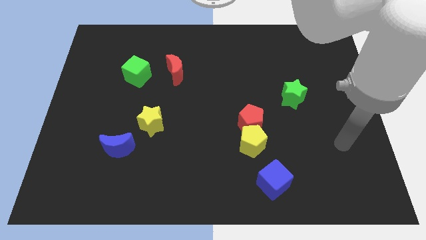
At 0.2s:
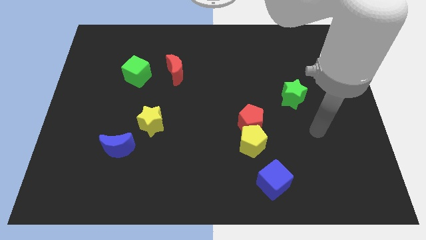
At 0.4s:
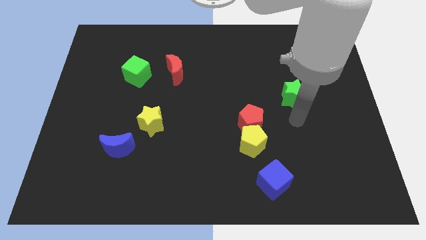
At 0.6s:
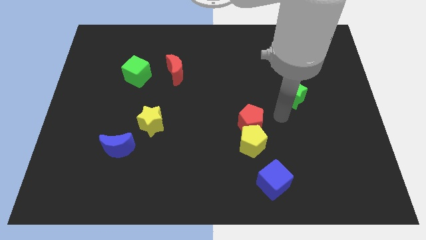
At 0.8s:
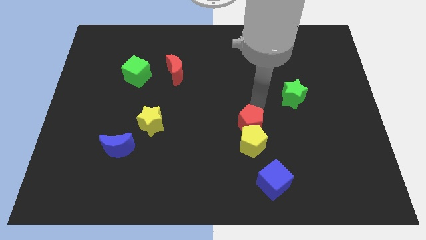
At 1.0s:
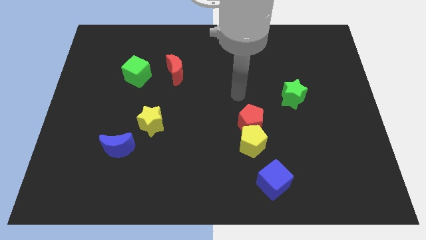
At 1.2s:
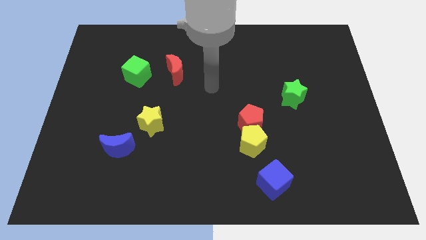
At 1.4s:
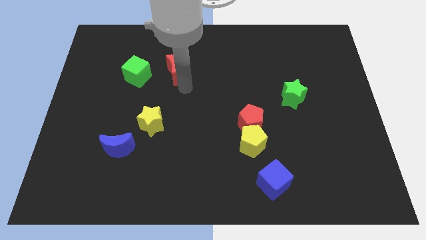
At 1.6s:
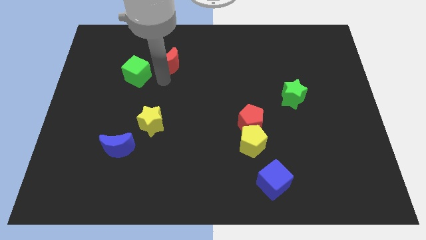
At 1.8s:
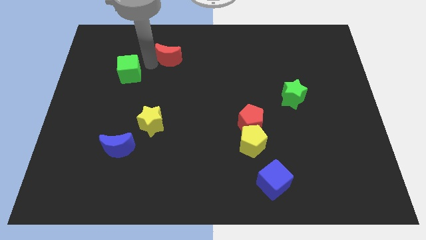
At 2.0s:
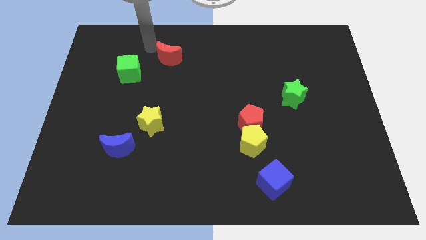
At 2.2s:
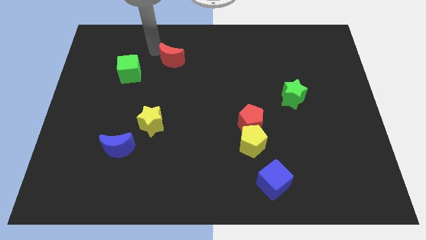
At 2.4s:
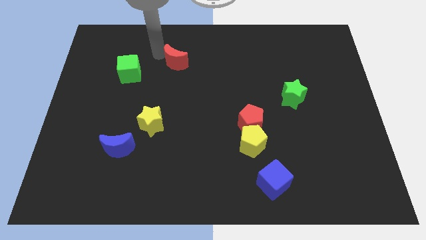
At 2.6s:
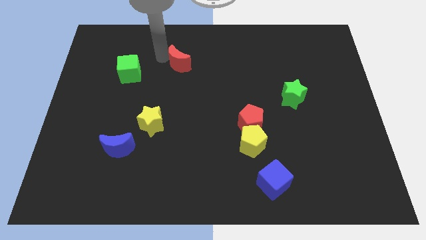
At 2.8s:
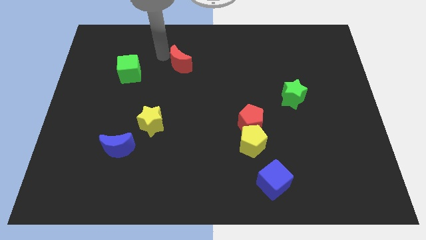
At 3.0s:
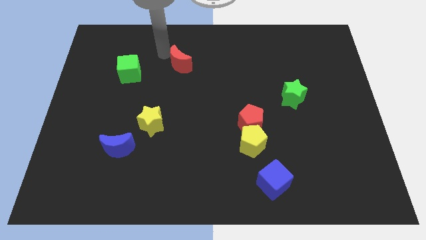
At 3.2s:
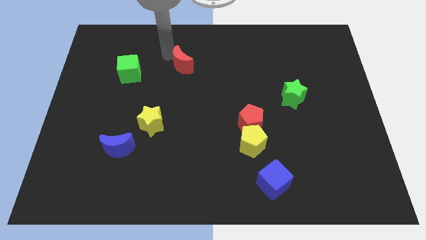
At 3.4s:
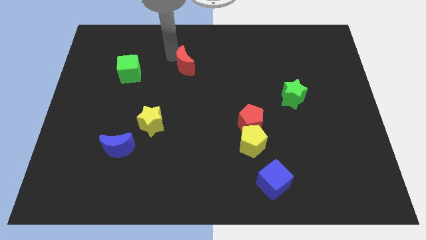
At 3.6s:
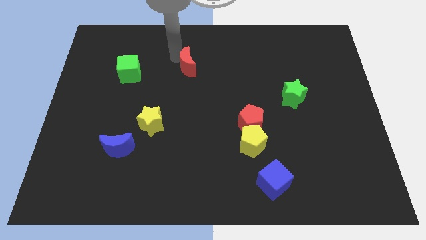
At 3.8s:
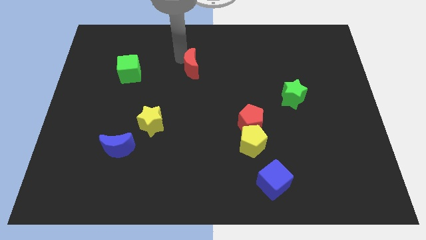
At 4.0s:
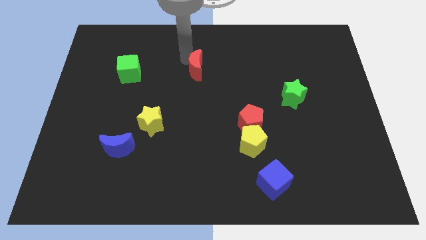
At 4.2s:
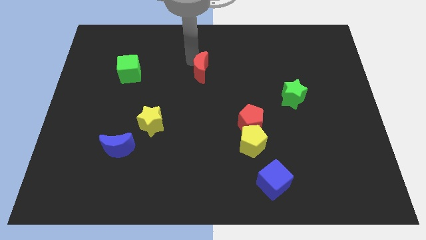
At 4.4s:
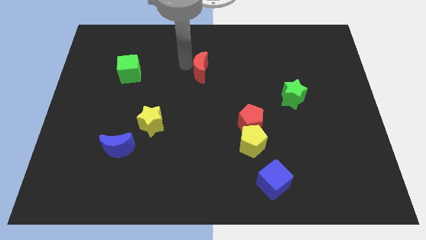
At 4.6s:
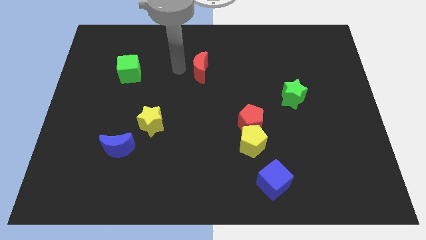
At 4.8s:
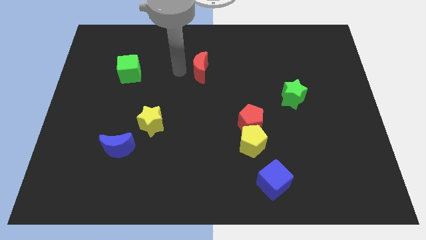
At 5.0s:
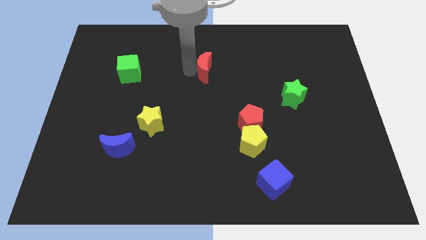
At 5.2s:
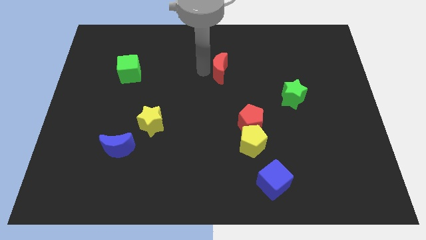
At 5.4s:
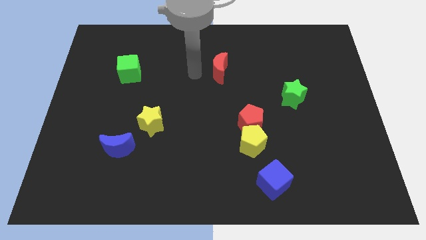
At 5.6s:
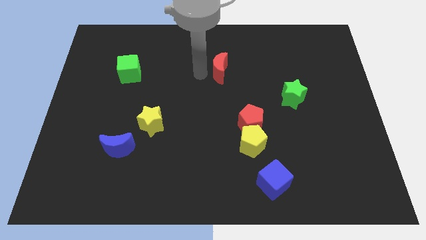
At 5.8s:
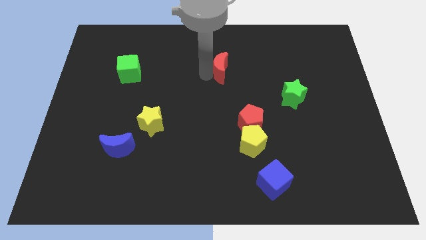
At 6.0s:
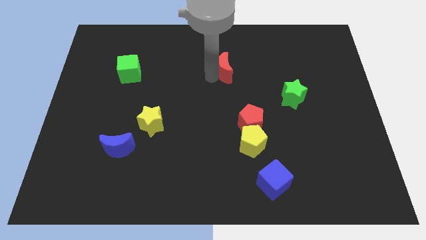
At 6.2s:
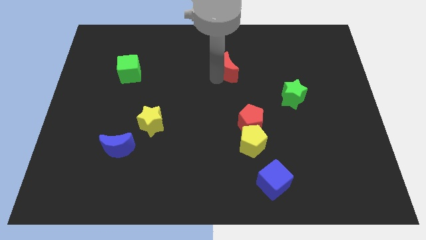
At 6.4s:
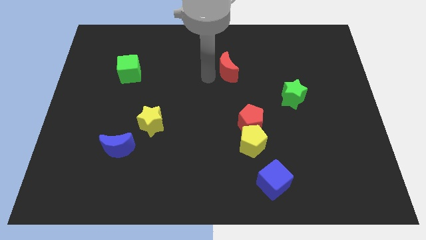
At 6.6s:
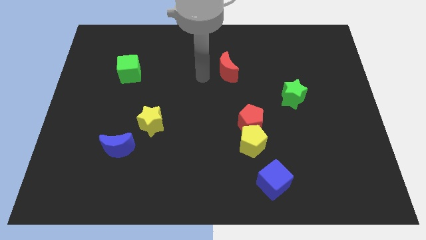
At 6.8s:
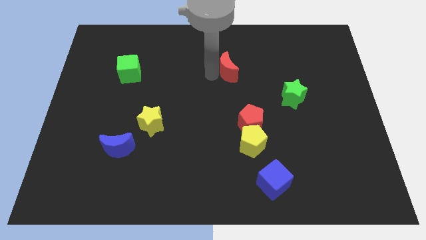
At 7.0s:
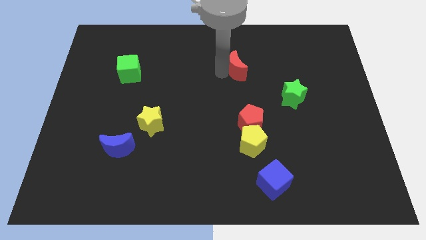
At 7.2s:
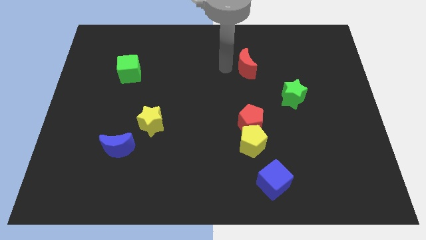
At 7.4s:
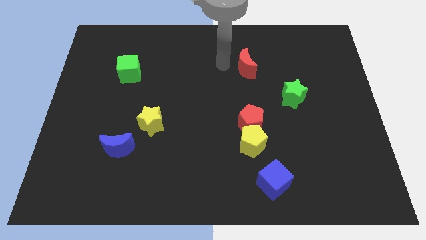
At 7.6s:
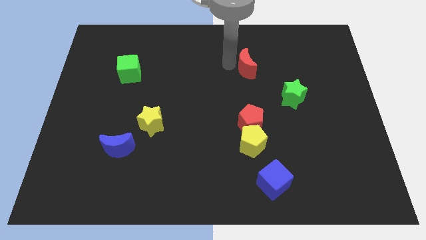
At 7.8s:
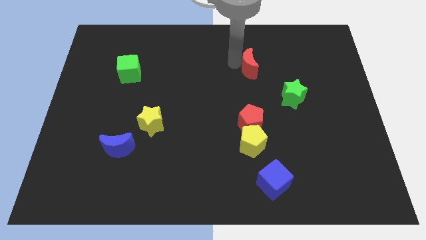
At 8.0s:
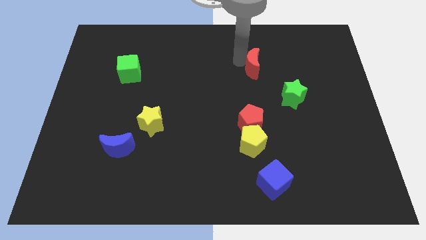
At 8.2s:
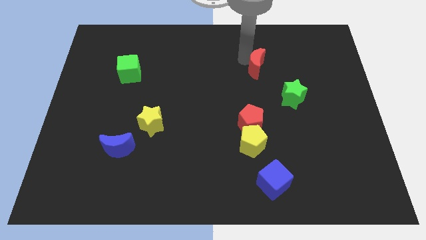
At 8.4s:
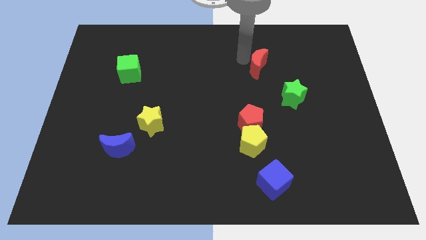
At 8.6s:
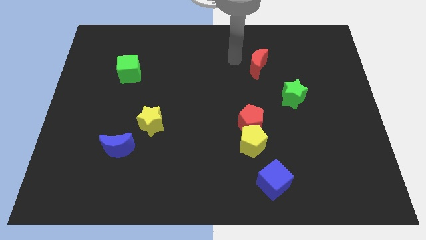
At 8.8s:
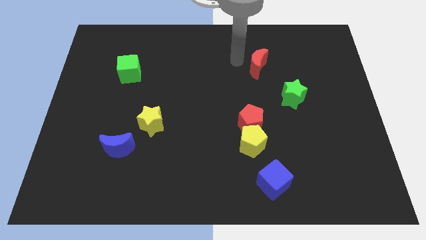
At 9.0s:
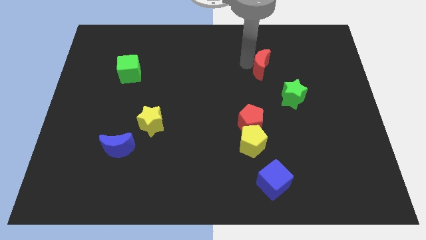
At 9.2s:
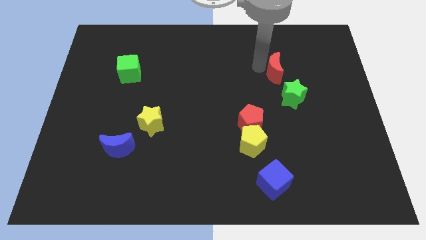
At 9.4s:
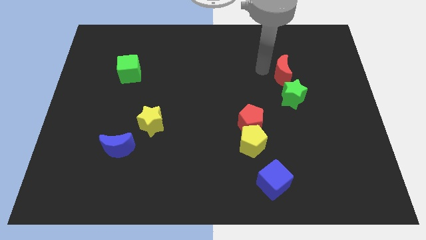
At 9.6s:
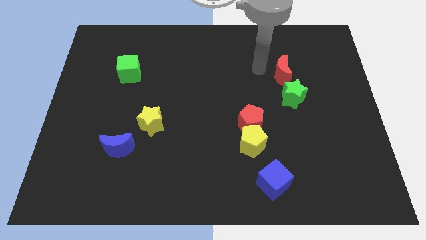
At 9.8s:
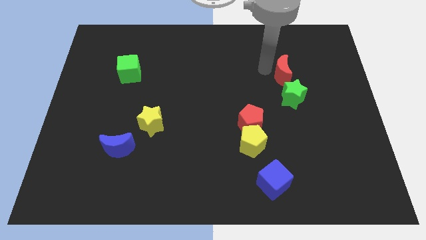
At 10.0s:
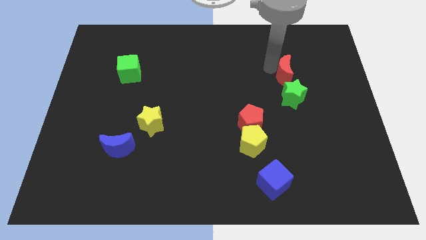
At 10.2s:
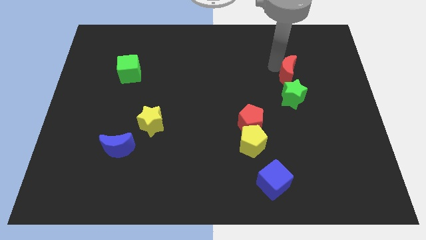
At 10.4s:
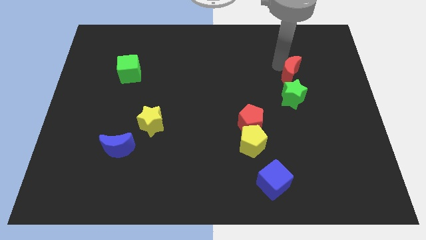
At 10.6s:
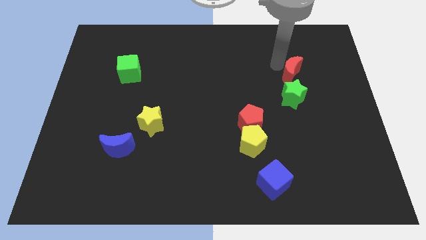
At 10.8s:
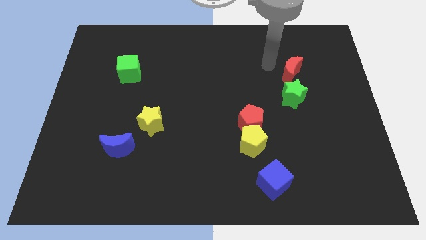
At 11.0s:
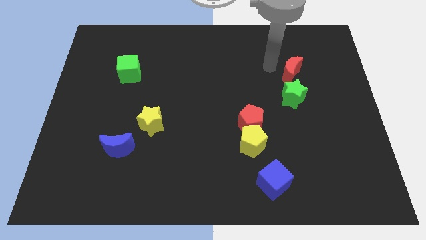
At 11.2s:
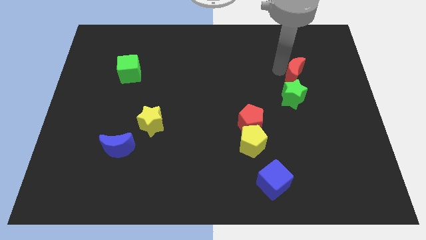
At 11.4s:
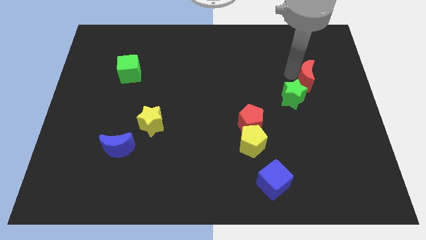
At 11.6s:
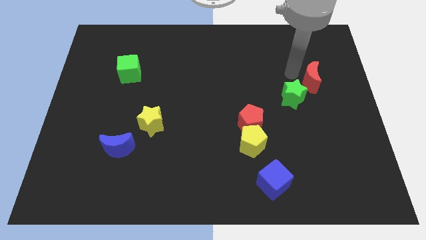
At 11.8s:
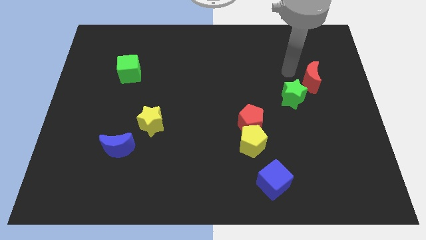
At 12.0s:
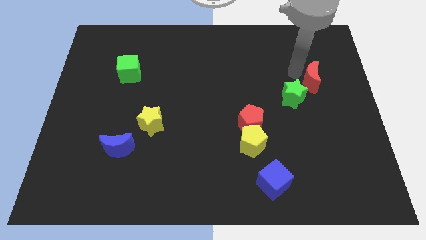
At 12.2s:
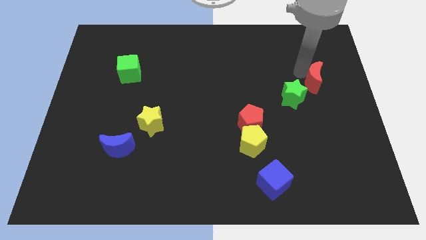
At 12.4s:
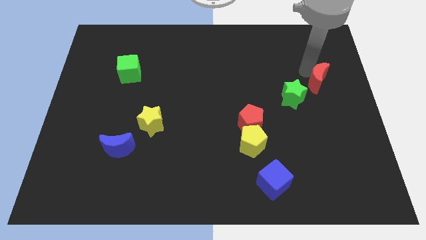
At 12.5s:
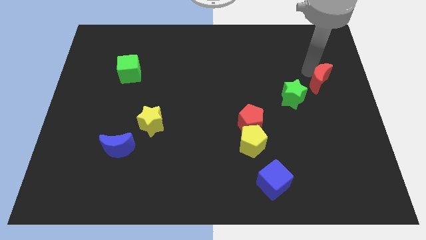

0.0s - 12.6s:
put the red moon to the right side of the board
